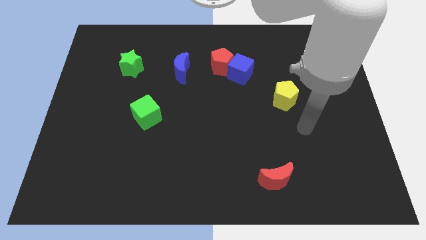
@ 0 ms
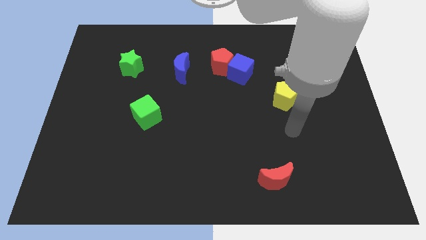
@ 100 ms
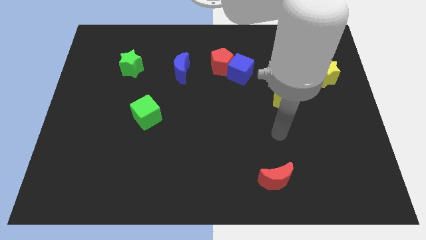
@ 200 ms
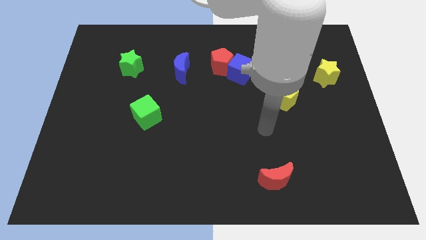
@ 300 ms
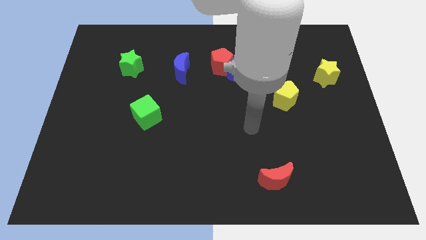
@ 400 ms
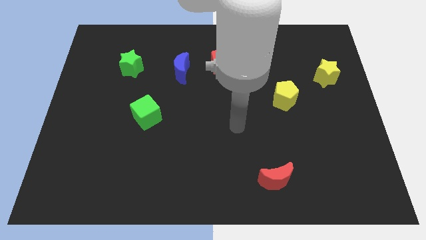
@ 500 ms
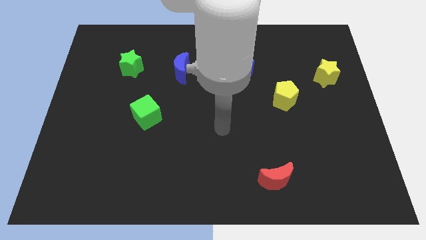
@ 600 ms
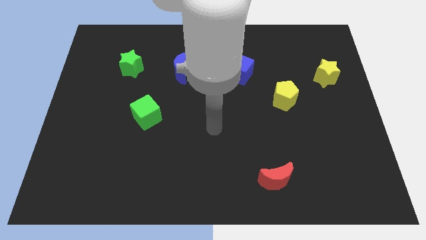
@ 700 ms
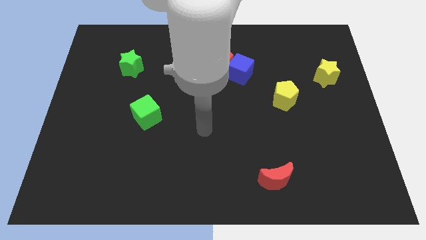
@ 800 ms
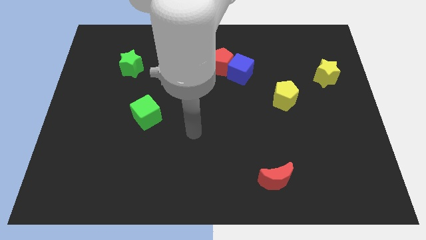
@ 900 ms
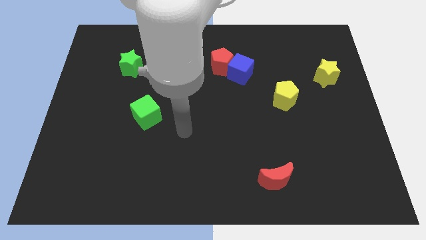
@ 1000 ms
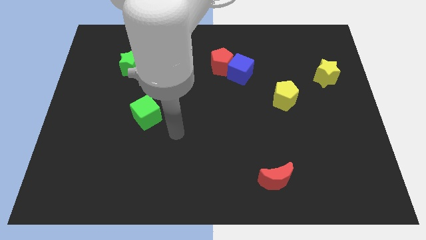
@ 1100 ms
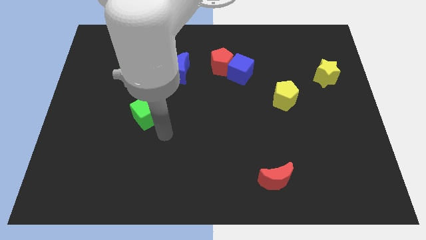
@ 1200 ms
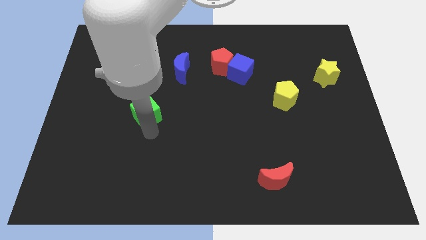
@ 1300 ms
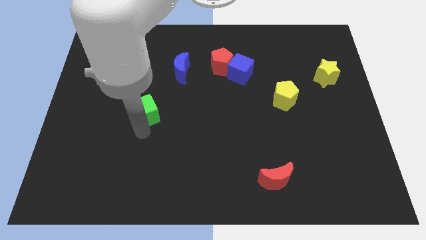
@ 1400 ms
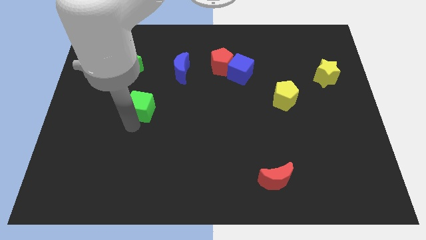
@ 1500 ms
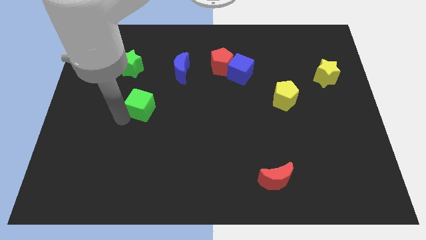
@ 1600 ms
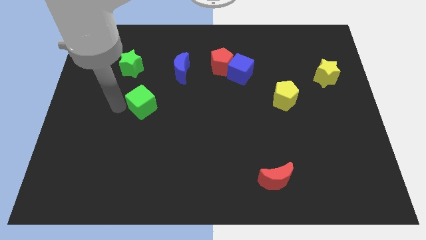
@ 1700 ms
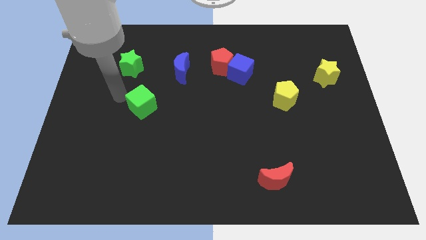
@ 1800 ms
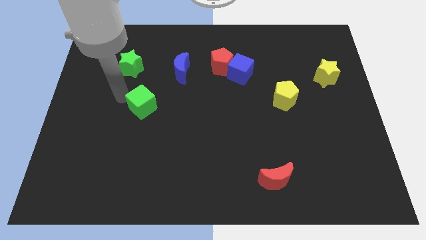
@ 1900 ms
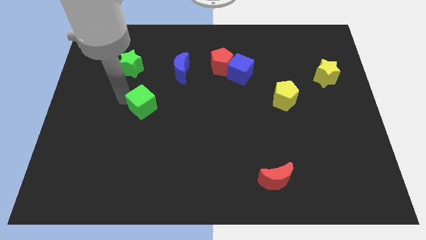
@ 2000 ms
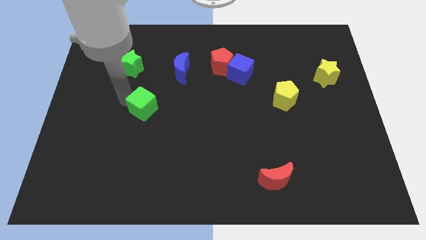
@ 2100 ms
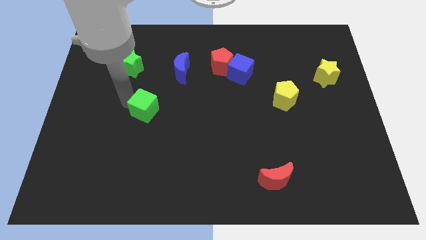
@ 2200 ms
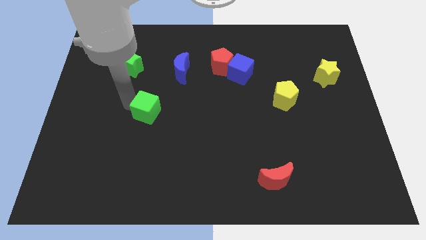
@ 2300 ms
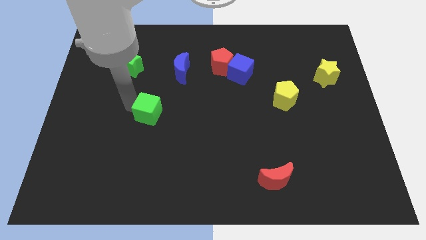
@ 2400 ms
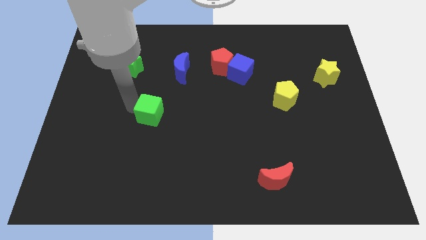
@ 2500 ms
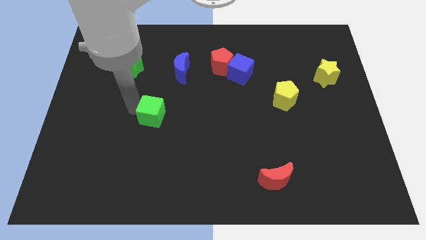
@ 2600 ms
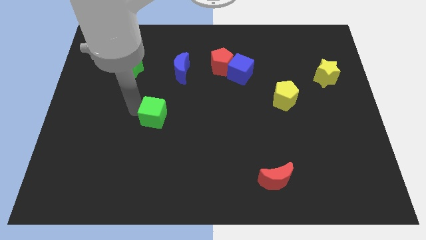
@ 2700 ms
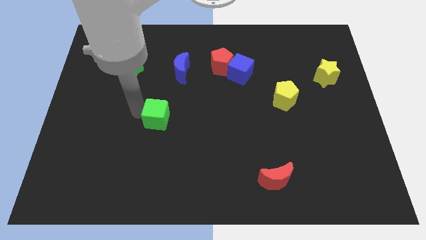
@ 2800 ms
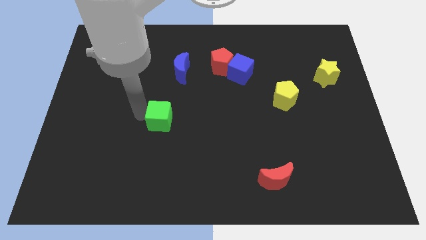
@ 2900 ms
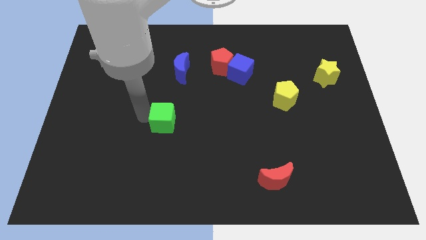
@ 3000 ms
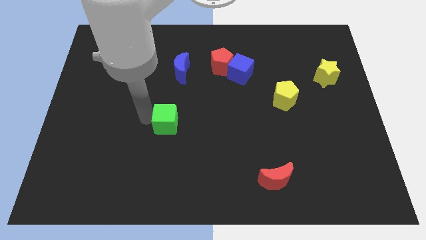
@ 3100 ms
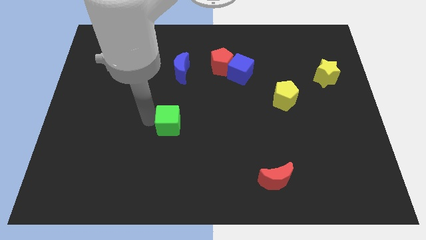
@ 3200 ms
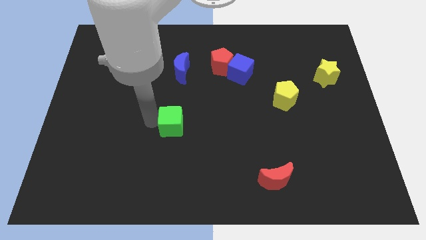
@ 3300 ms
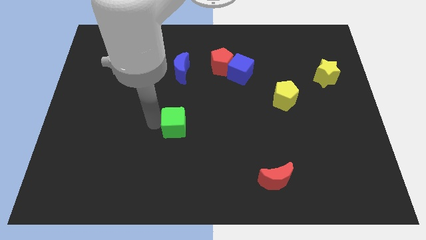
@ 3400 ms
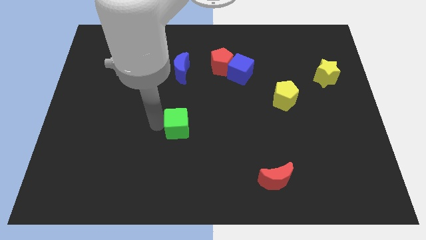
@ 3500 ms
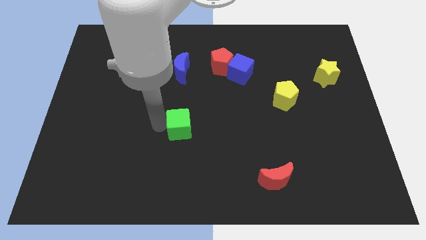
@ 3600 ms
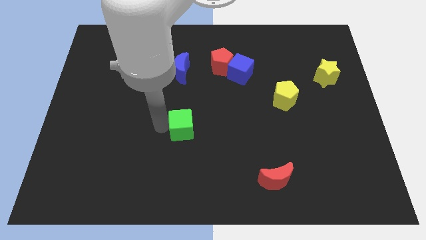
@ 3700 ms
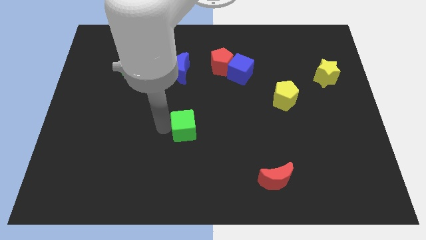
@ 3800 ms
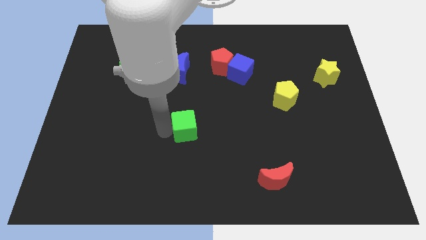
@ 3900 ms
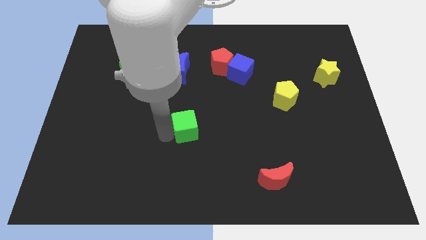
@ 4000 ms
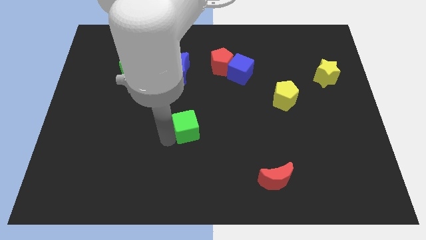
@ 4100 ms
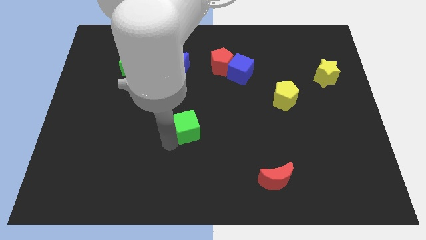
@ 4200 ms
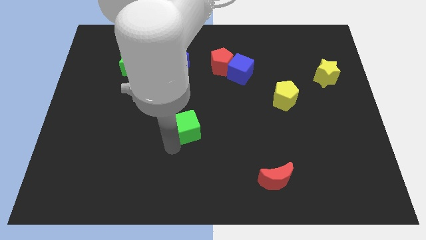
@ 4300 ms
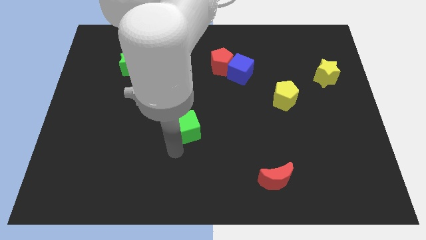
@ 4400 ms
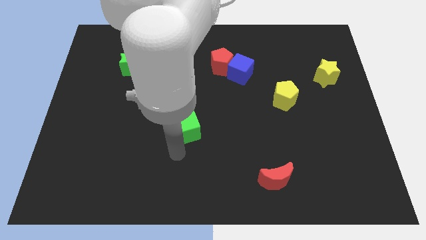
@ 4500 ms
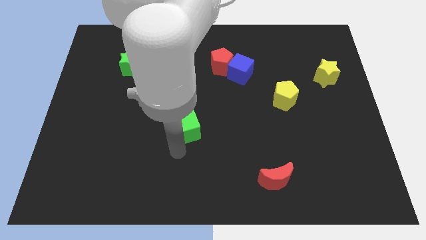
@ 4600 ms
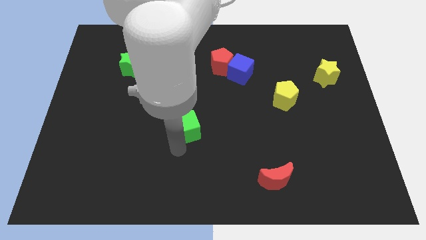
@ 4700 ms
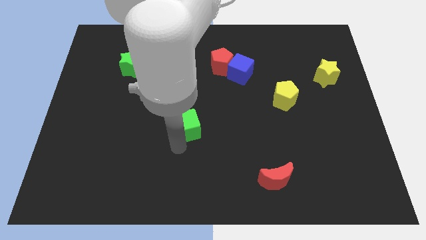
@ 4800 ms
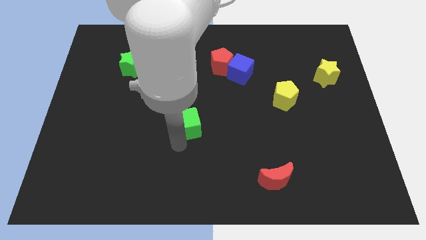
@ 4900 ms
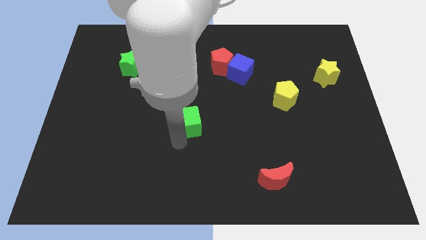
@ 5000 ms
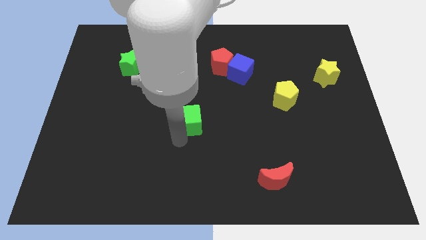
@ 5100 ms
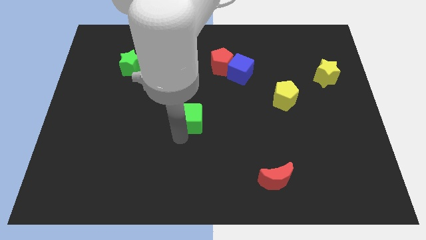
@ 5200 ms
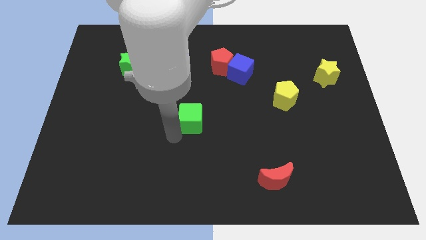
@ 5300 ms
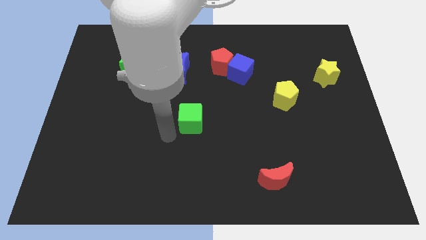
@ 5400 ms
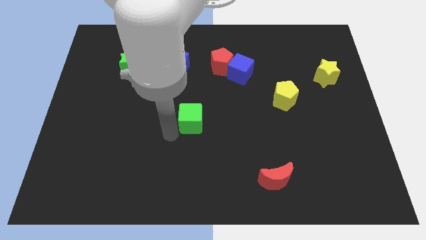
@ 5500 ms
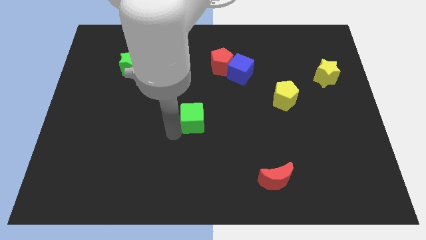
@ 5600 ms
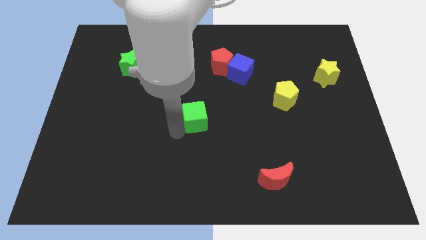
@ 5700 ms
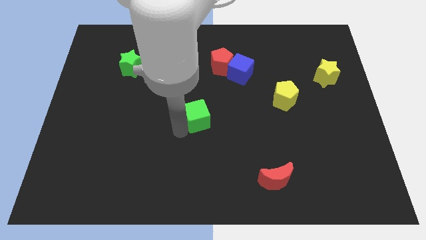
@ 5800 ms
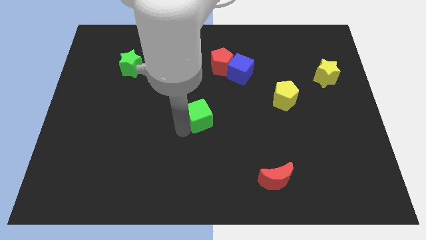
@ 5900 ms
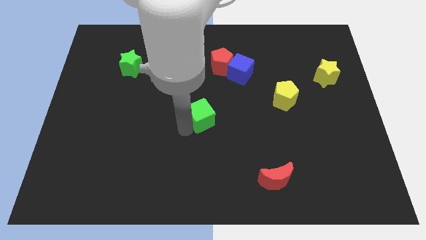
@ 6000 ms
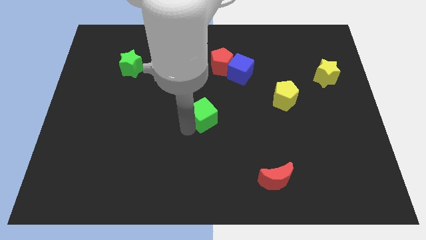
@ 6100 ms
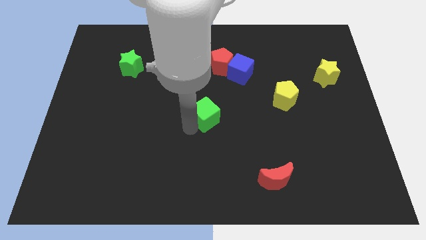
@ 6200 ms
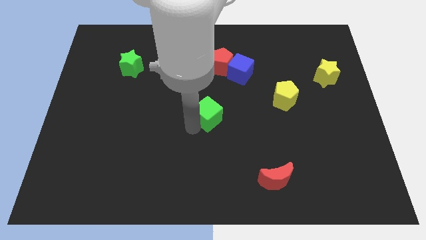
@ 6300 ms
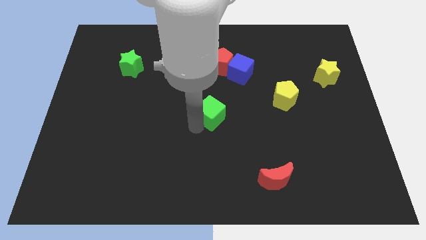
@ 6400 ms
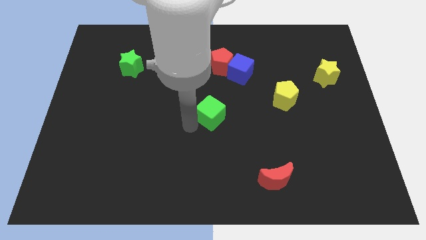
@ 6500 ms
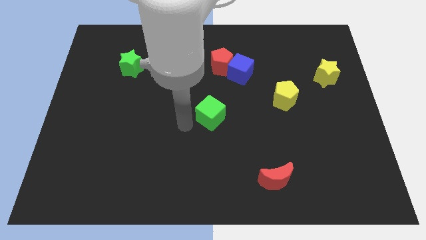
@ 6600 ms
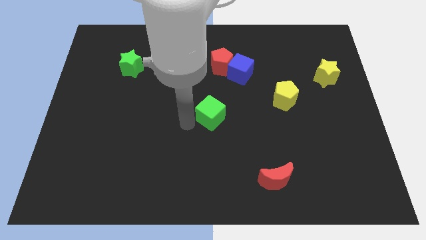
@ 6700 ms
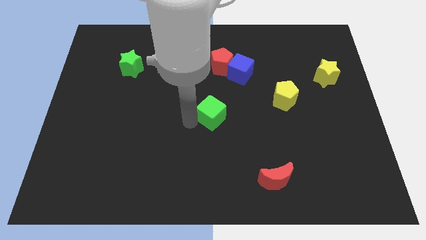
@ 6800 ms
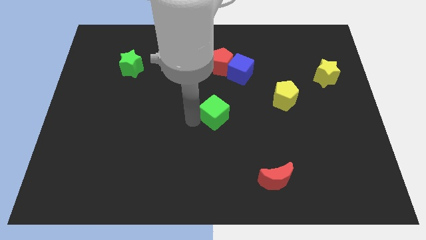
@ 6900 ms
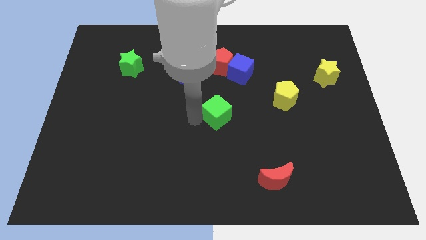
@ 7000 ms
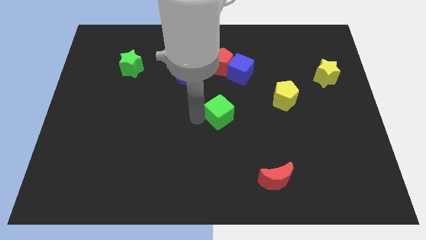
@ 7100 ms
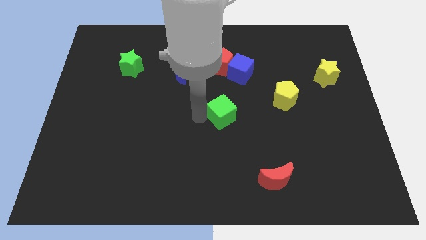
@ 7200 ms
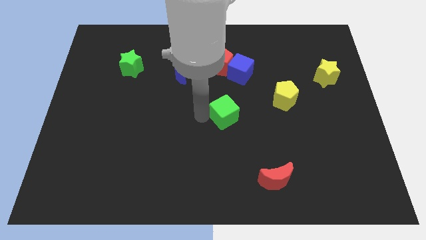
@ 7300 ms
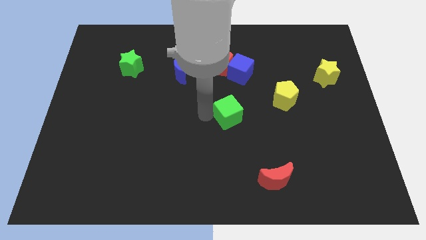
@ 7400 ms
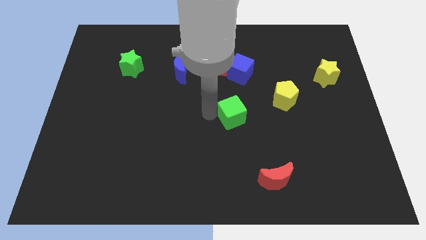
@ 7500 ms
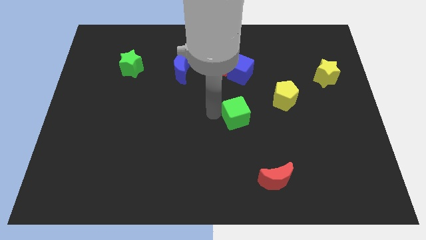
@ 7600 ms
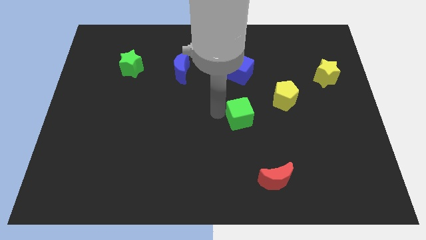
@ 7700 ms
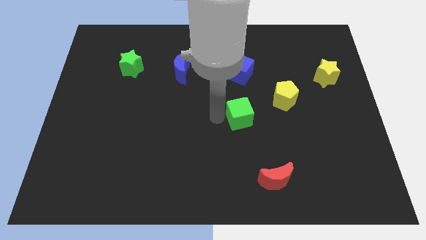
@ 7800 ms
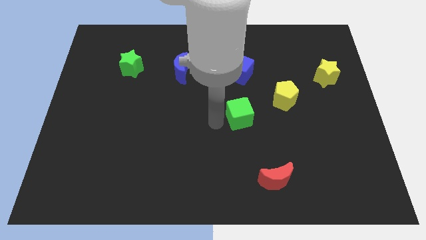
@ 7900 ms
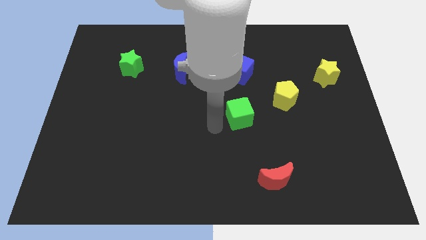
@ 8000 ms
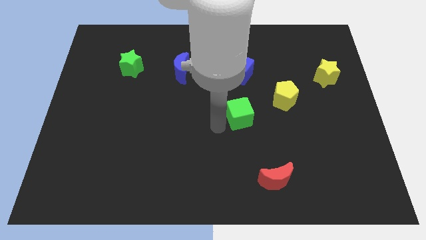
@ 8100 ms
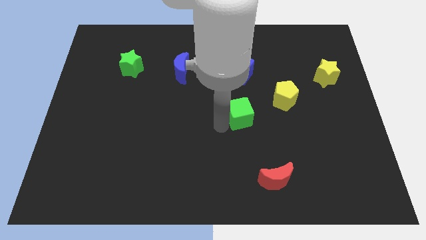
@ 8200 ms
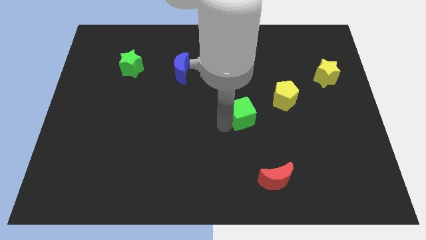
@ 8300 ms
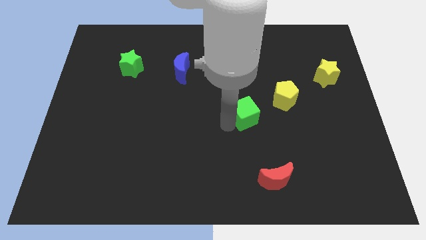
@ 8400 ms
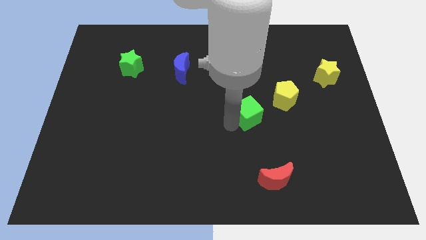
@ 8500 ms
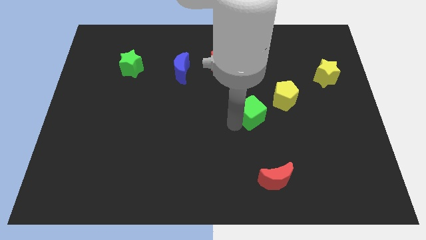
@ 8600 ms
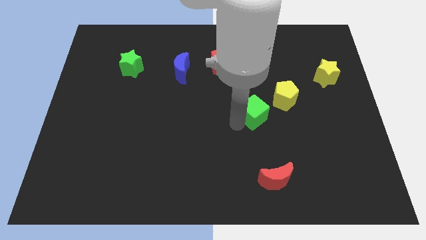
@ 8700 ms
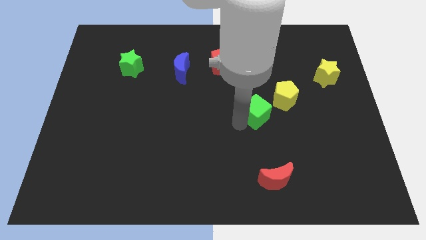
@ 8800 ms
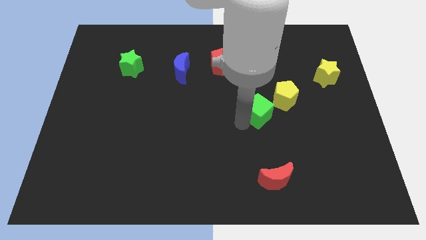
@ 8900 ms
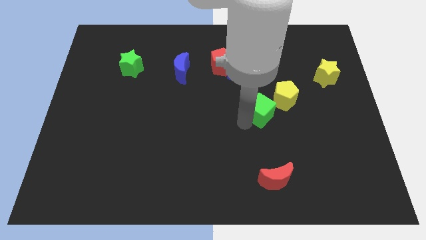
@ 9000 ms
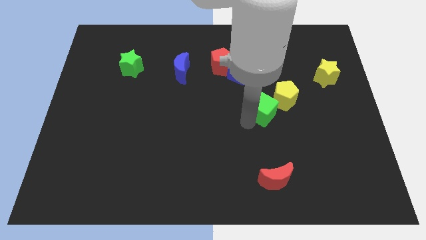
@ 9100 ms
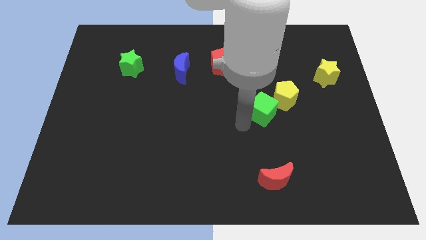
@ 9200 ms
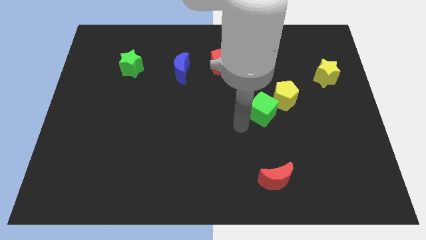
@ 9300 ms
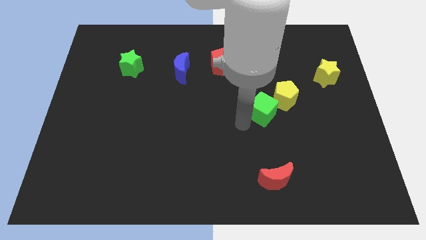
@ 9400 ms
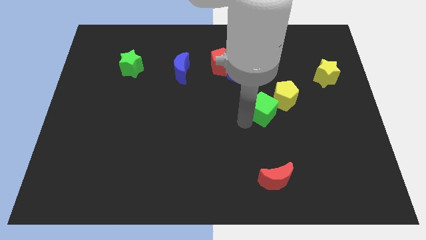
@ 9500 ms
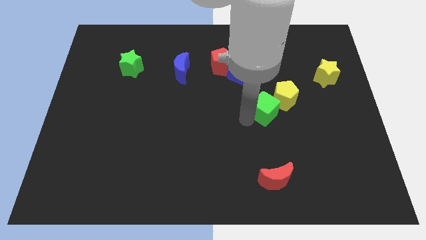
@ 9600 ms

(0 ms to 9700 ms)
push the green cube next to the yellow pentagon
